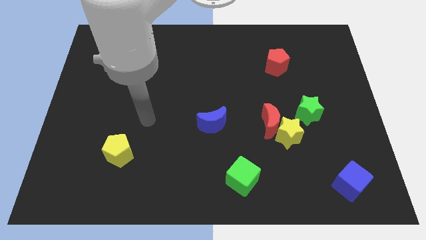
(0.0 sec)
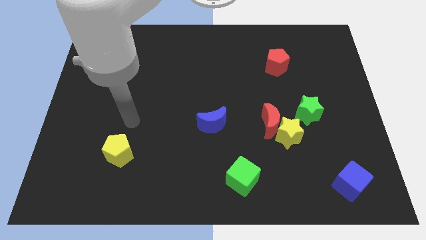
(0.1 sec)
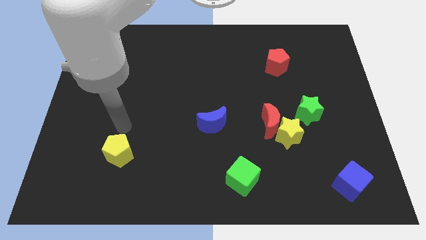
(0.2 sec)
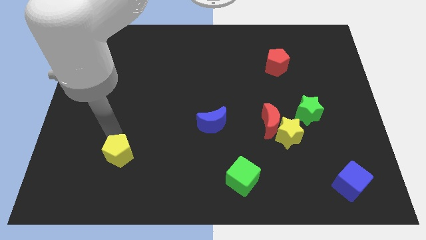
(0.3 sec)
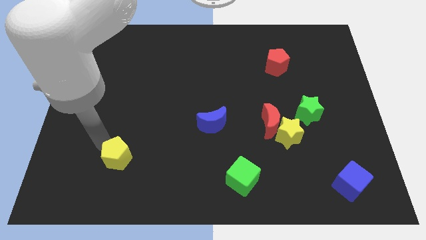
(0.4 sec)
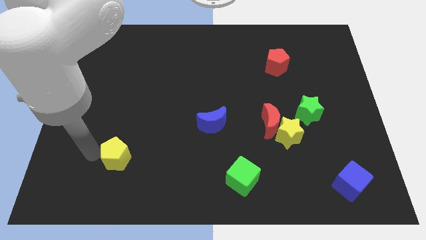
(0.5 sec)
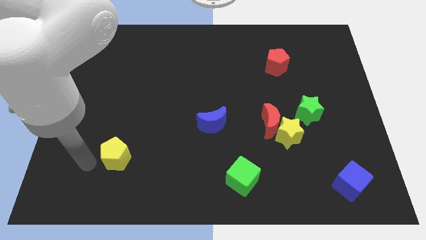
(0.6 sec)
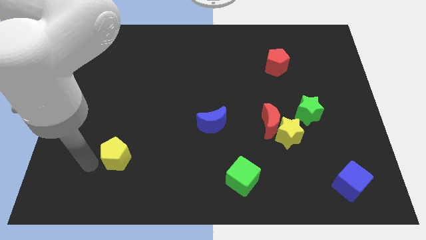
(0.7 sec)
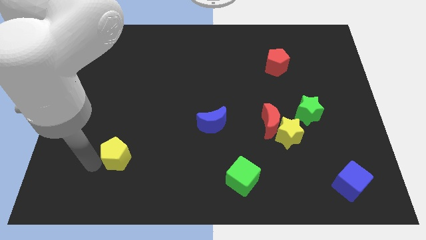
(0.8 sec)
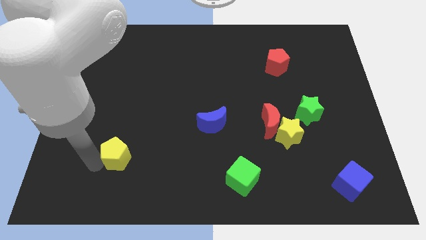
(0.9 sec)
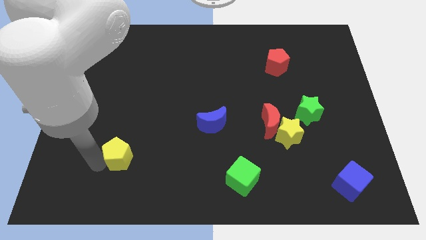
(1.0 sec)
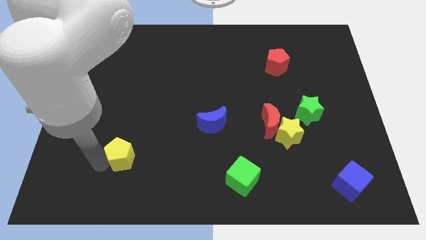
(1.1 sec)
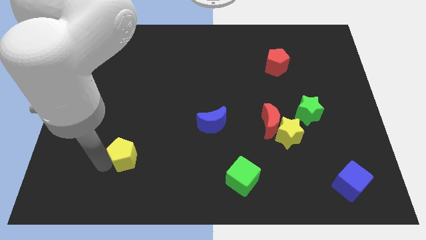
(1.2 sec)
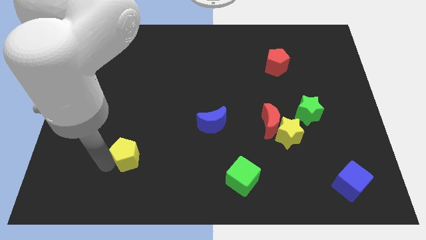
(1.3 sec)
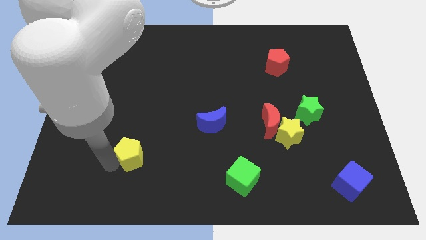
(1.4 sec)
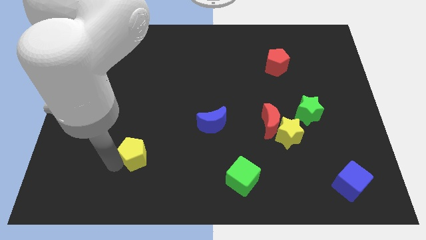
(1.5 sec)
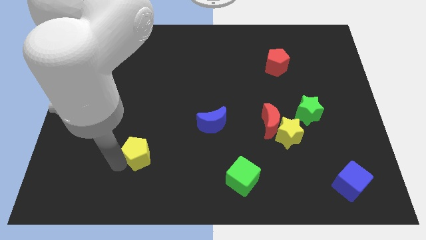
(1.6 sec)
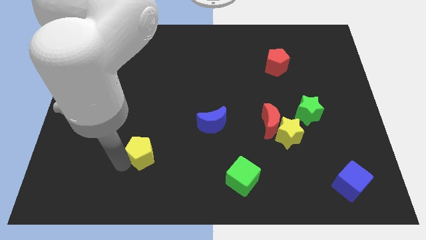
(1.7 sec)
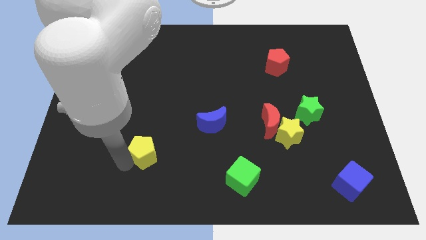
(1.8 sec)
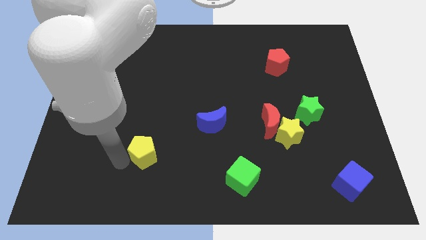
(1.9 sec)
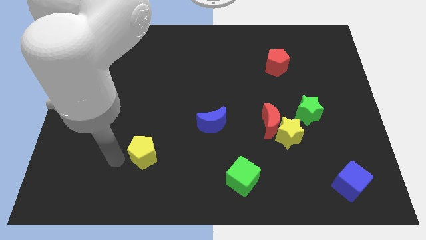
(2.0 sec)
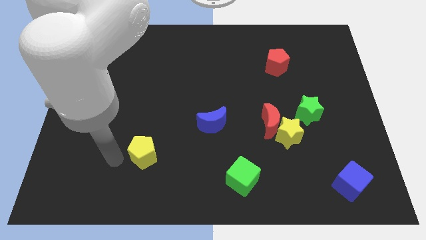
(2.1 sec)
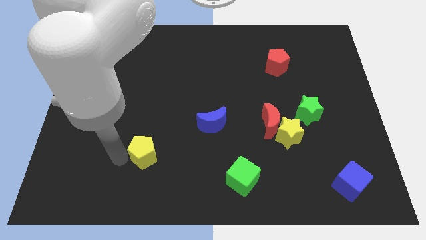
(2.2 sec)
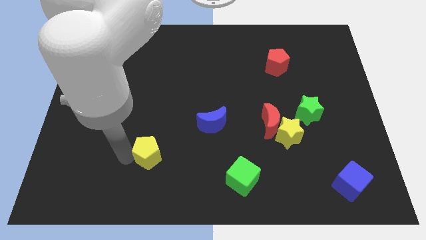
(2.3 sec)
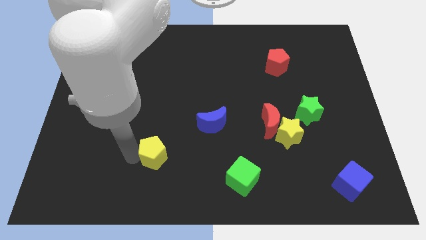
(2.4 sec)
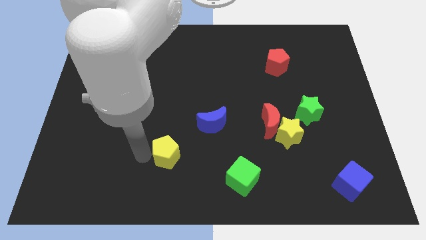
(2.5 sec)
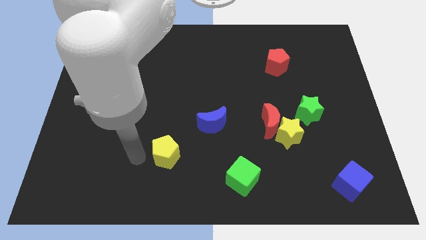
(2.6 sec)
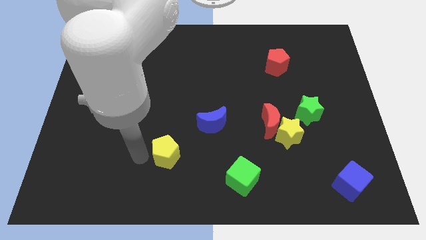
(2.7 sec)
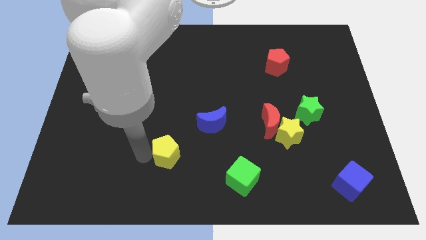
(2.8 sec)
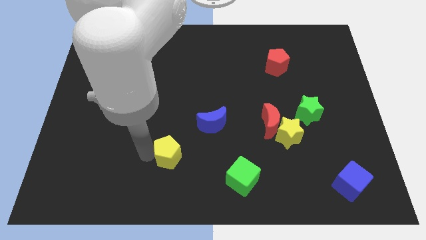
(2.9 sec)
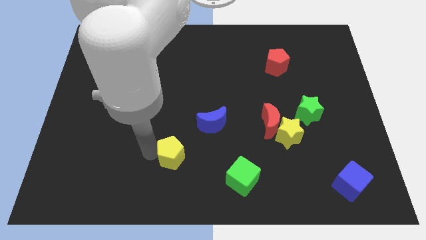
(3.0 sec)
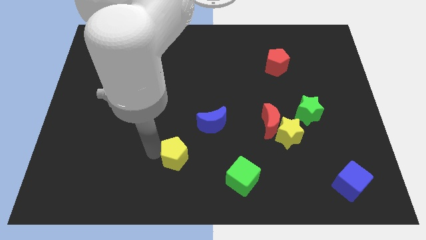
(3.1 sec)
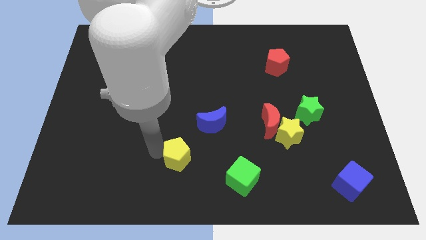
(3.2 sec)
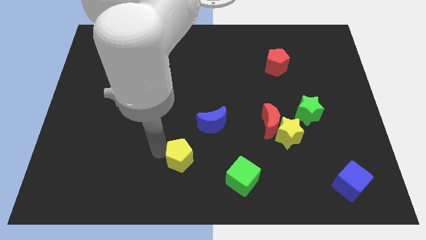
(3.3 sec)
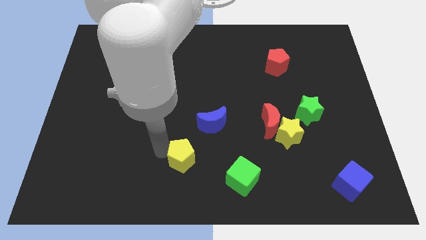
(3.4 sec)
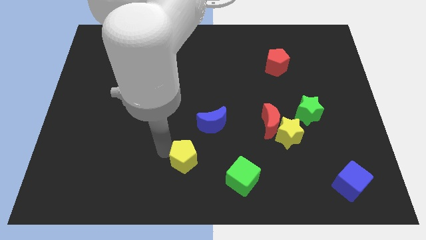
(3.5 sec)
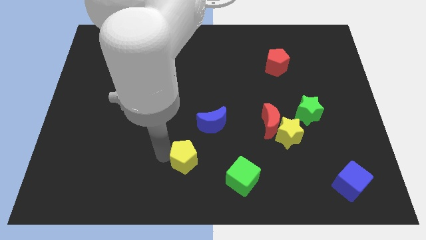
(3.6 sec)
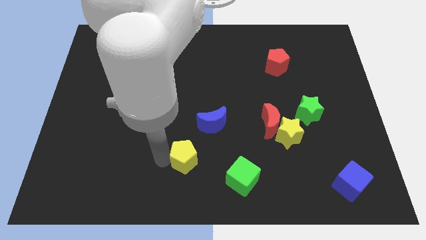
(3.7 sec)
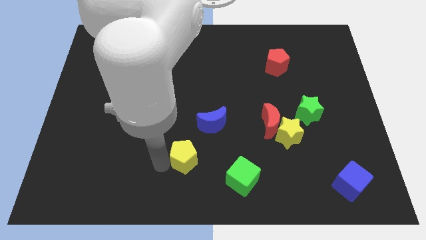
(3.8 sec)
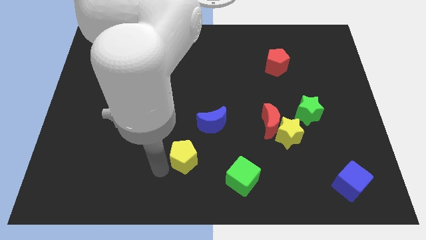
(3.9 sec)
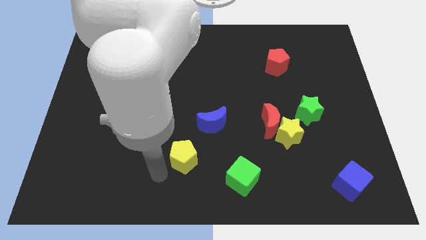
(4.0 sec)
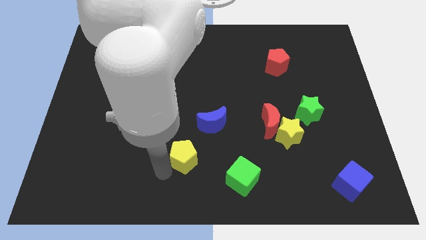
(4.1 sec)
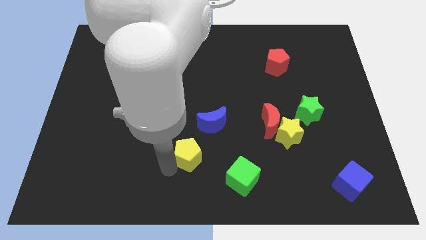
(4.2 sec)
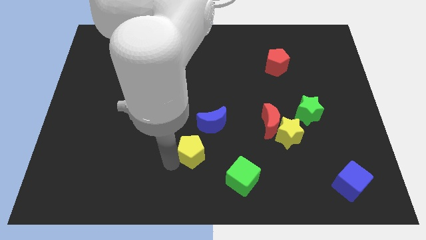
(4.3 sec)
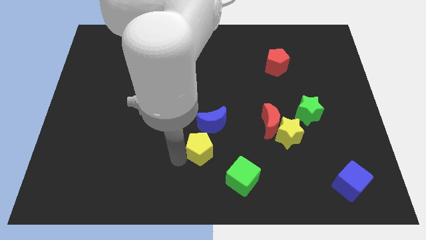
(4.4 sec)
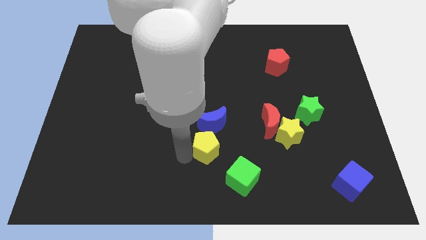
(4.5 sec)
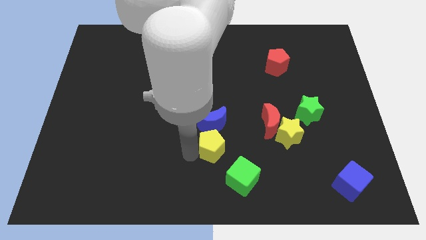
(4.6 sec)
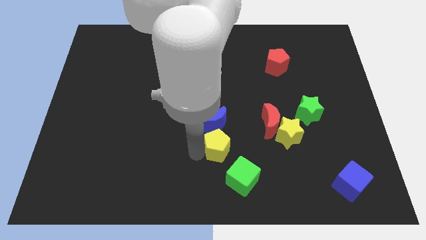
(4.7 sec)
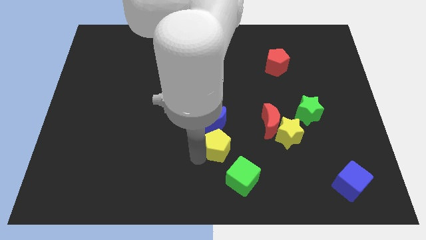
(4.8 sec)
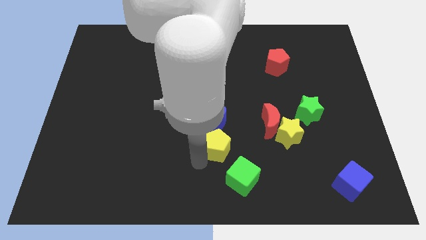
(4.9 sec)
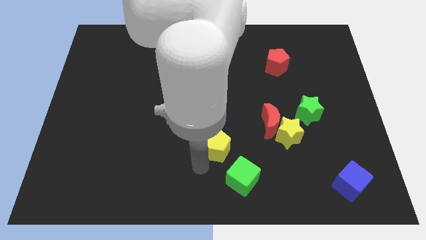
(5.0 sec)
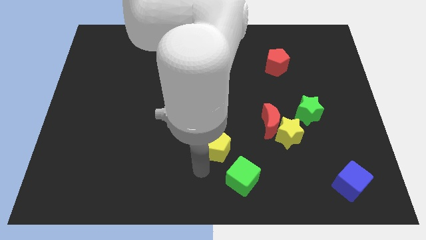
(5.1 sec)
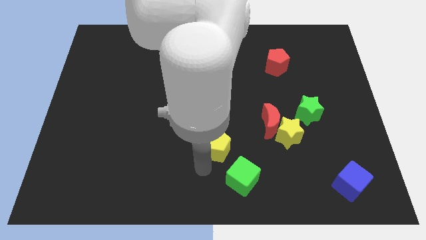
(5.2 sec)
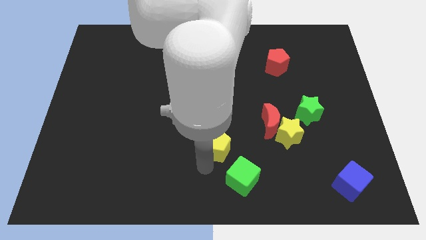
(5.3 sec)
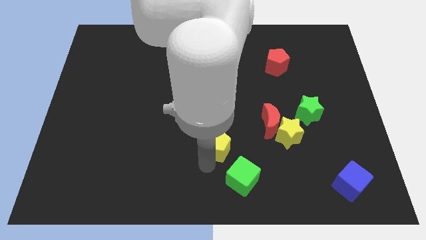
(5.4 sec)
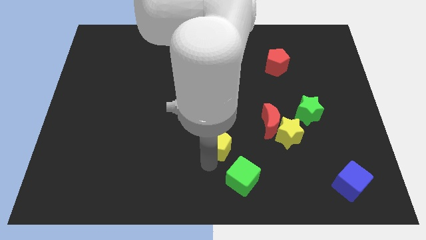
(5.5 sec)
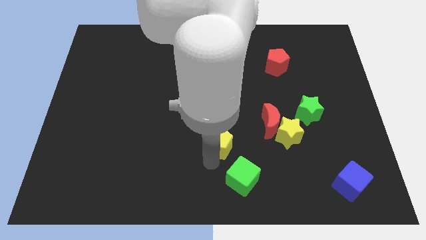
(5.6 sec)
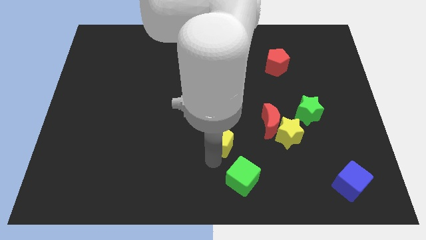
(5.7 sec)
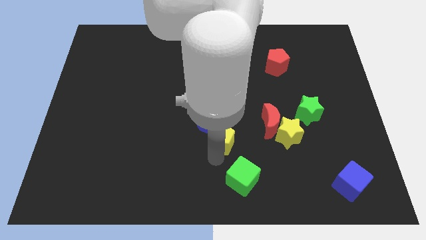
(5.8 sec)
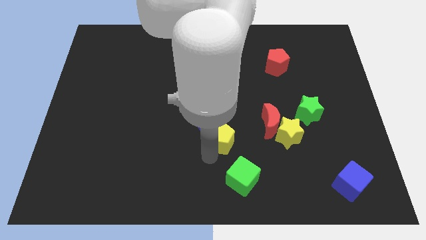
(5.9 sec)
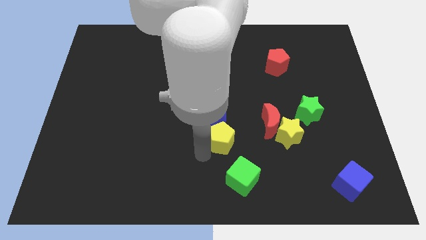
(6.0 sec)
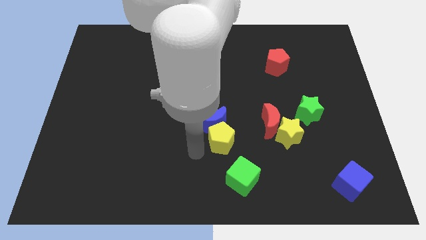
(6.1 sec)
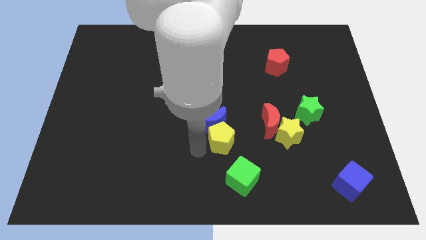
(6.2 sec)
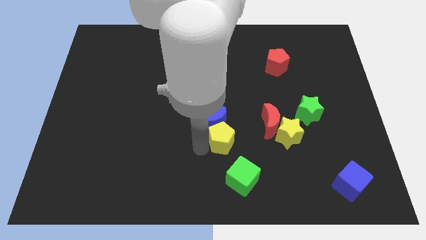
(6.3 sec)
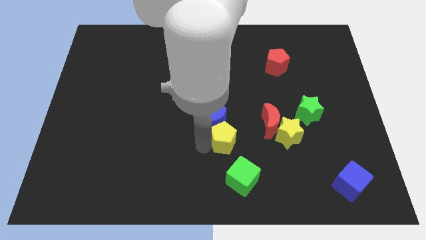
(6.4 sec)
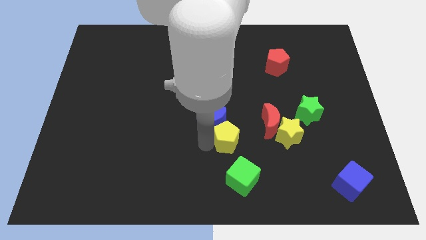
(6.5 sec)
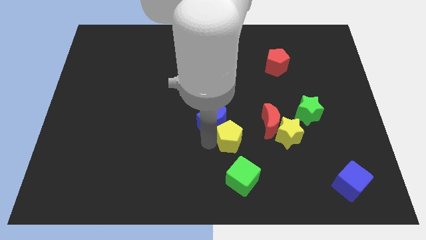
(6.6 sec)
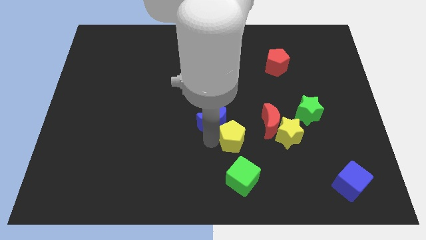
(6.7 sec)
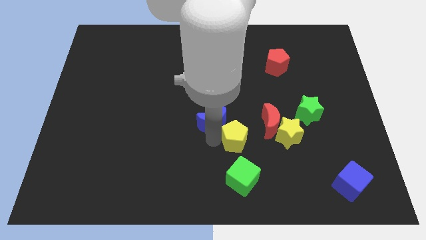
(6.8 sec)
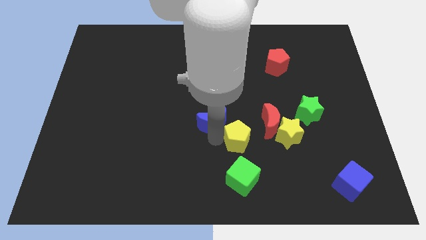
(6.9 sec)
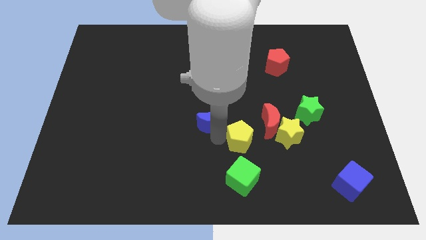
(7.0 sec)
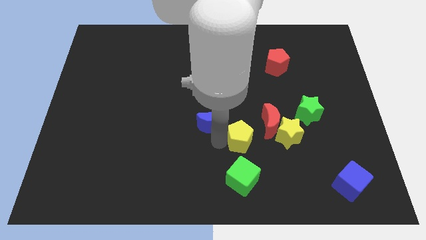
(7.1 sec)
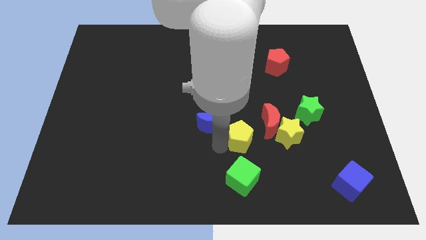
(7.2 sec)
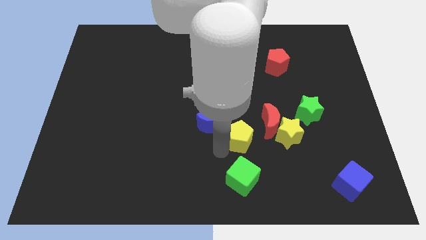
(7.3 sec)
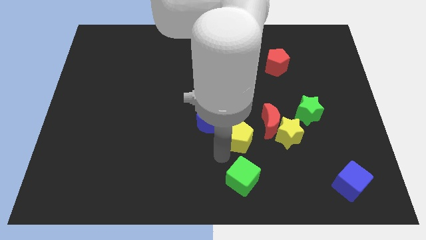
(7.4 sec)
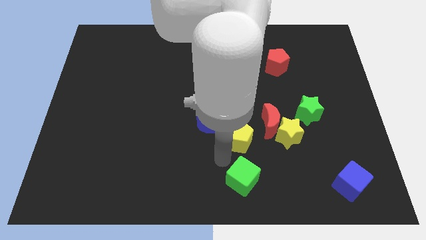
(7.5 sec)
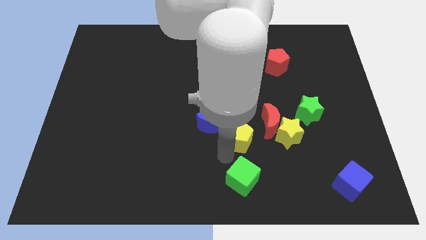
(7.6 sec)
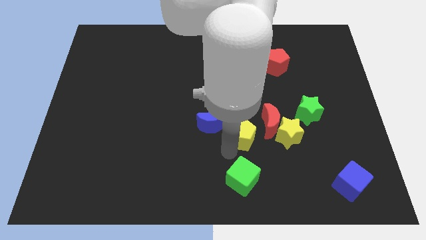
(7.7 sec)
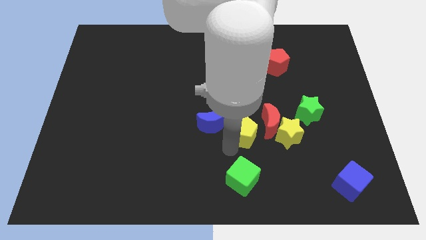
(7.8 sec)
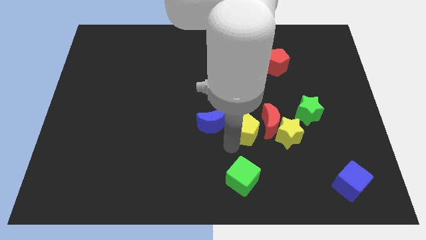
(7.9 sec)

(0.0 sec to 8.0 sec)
push the yellow pentagon next to the red moon
